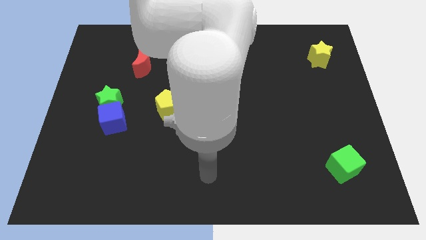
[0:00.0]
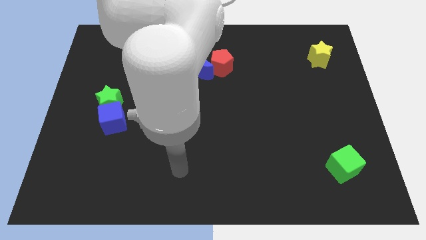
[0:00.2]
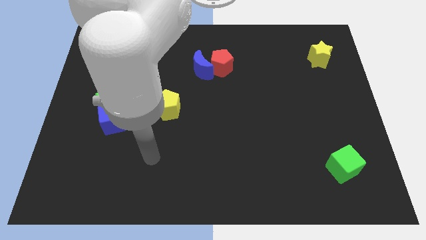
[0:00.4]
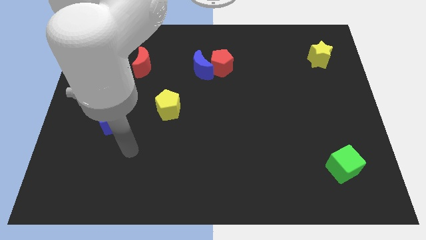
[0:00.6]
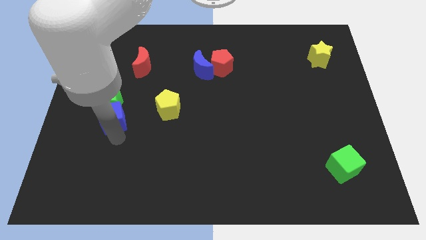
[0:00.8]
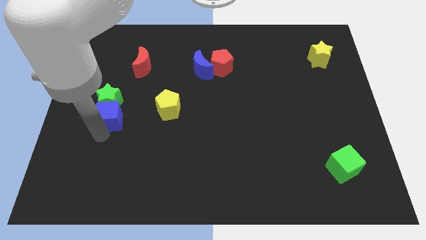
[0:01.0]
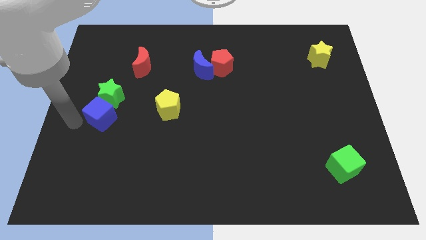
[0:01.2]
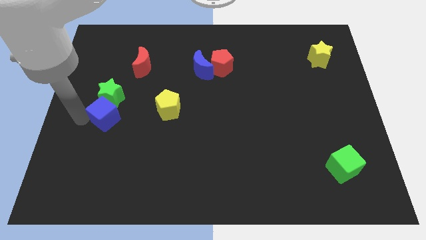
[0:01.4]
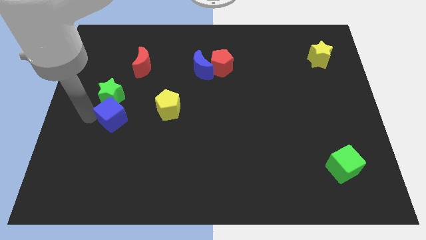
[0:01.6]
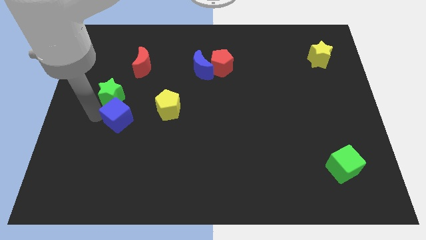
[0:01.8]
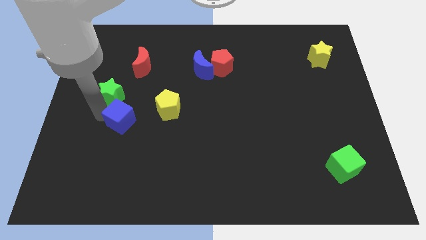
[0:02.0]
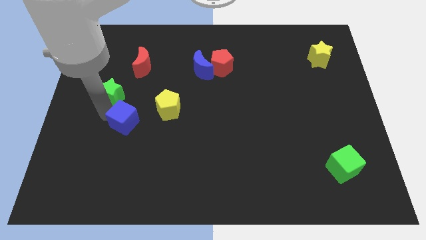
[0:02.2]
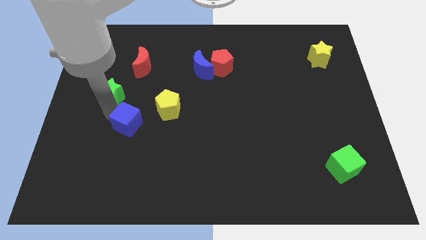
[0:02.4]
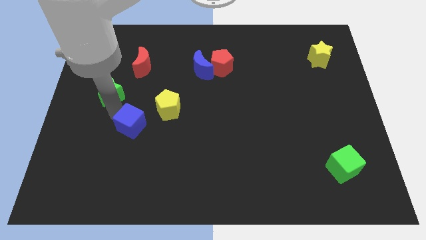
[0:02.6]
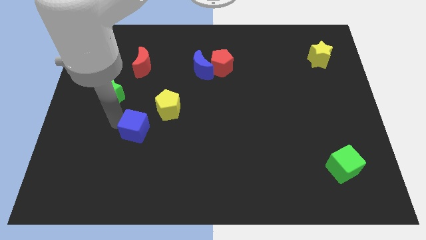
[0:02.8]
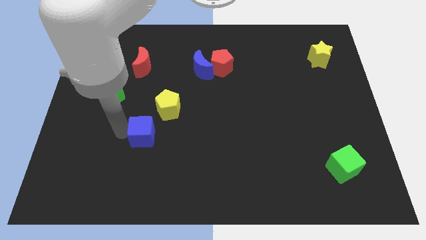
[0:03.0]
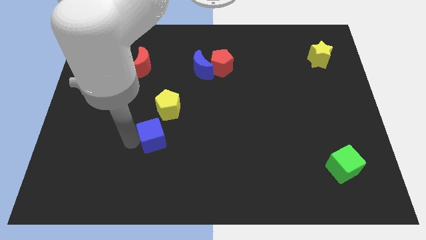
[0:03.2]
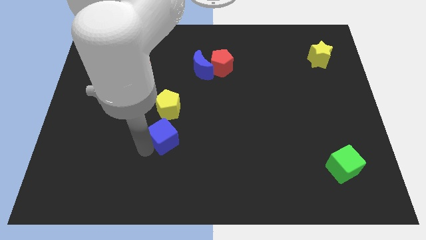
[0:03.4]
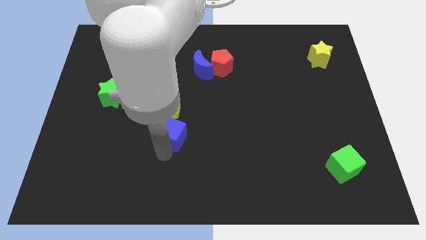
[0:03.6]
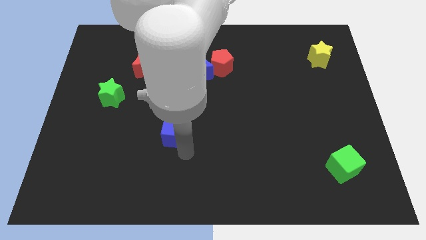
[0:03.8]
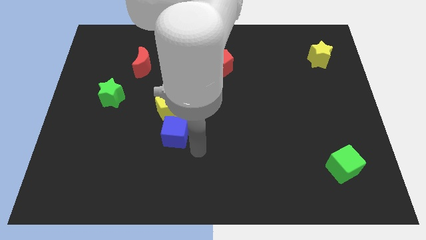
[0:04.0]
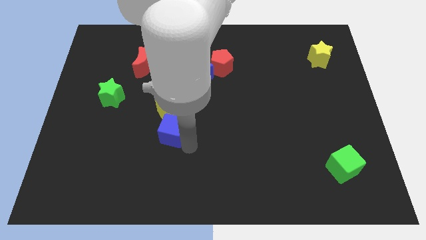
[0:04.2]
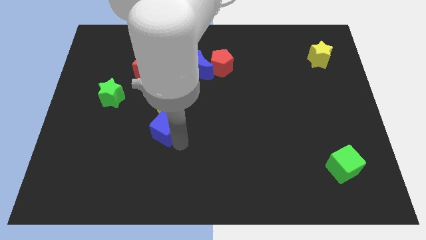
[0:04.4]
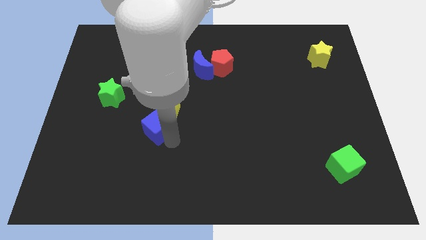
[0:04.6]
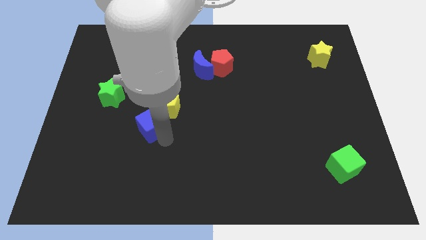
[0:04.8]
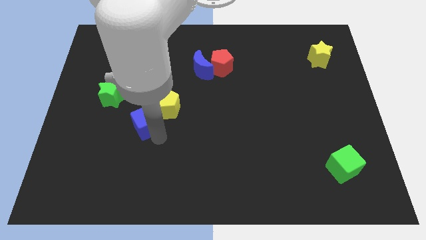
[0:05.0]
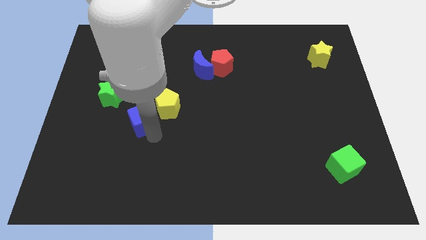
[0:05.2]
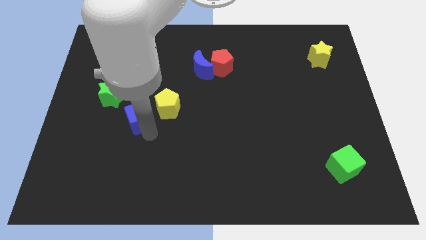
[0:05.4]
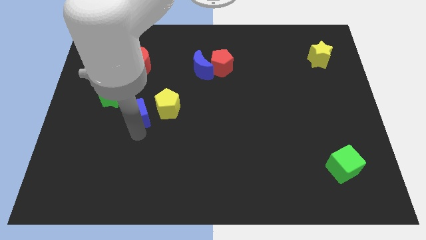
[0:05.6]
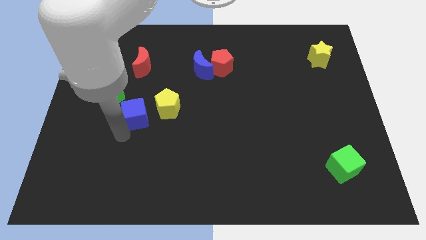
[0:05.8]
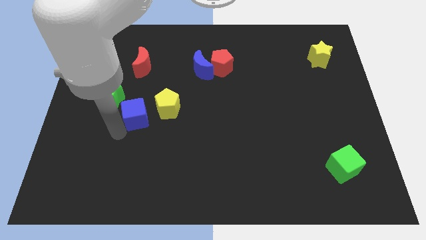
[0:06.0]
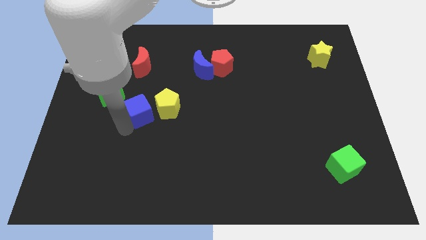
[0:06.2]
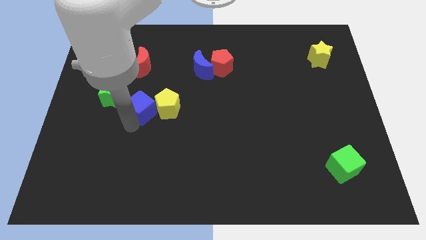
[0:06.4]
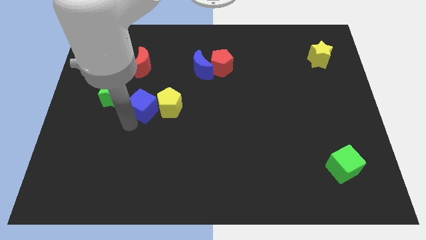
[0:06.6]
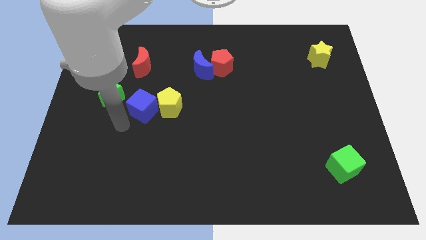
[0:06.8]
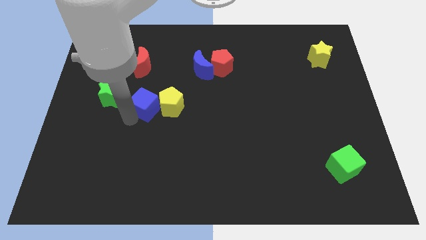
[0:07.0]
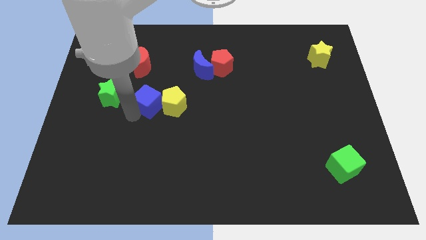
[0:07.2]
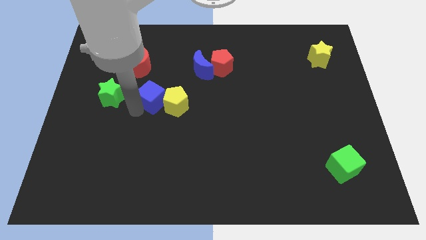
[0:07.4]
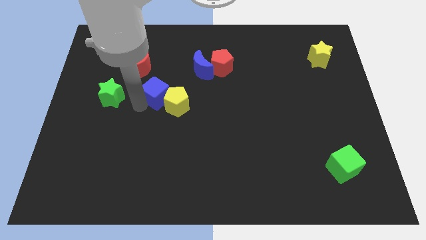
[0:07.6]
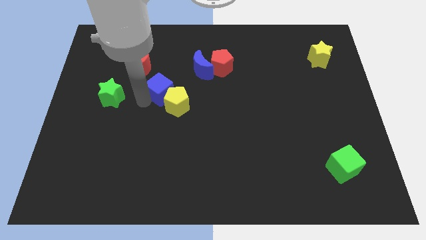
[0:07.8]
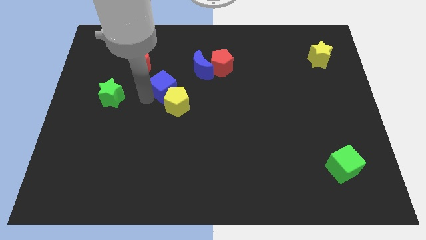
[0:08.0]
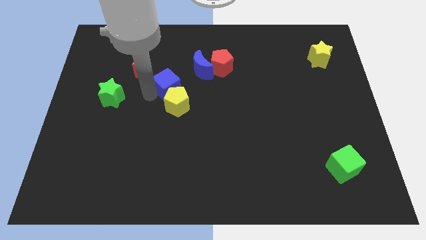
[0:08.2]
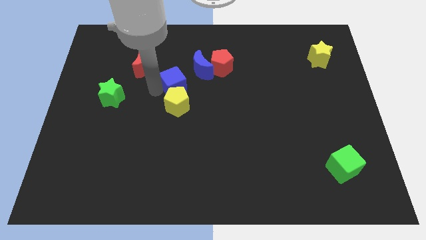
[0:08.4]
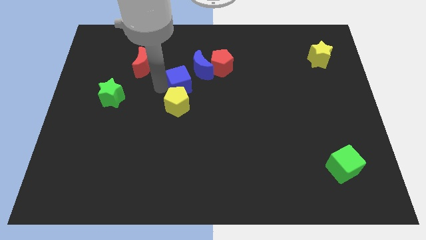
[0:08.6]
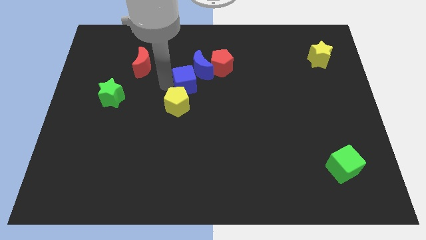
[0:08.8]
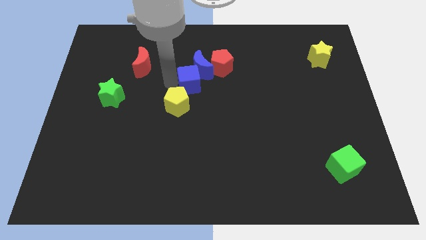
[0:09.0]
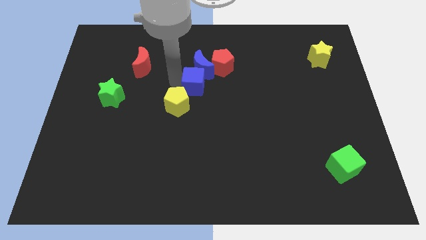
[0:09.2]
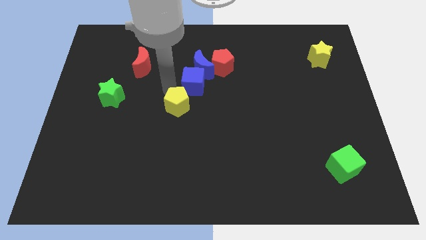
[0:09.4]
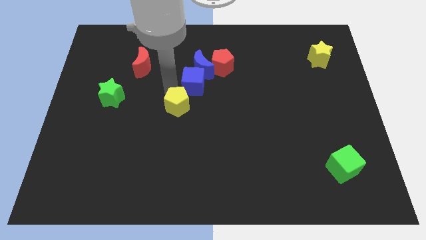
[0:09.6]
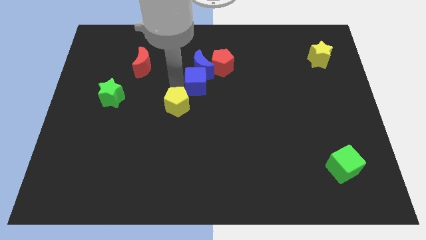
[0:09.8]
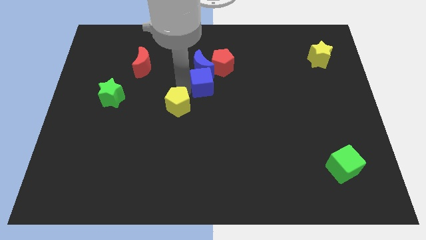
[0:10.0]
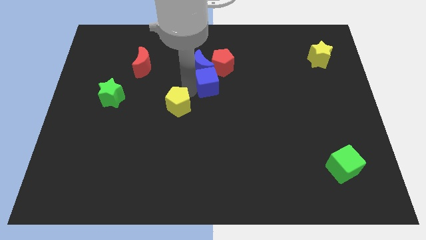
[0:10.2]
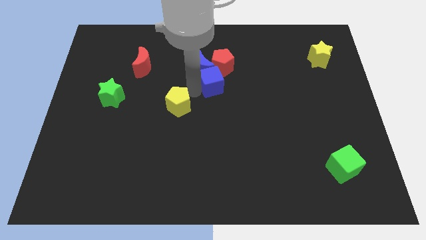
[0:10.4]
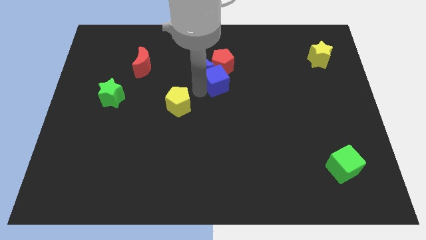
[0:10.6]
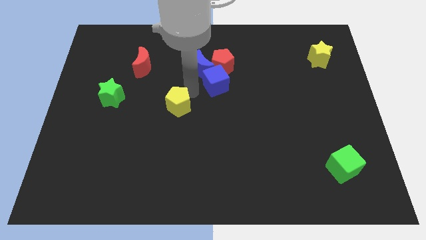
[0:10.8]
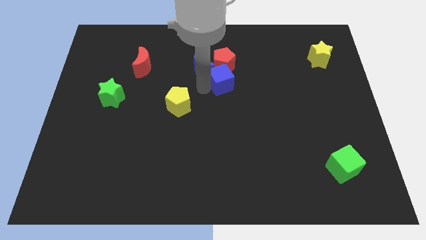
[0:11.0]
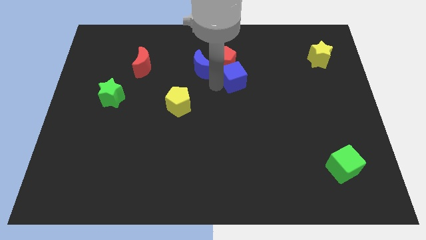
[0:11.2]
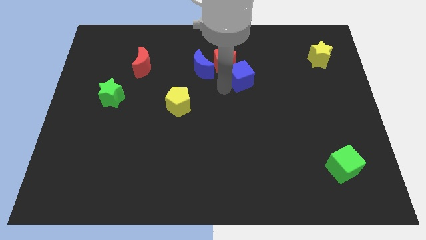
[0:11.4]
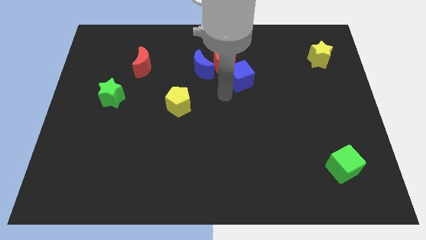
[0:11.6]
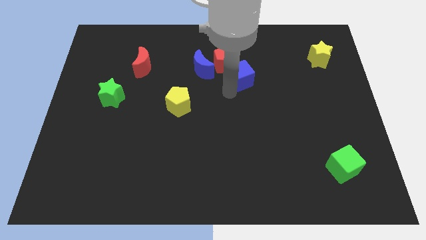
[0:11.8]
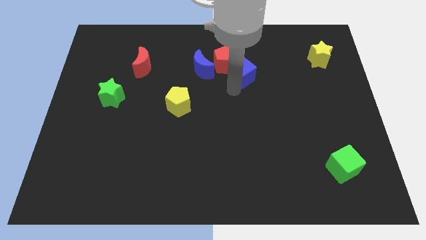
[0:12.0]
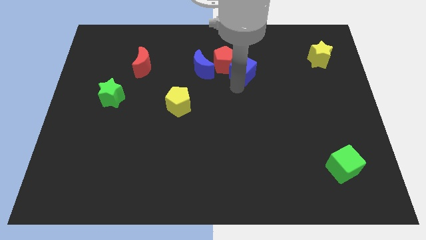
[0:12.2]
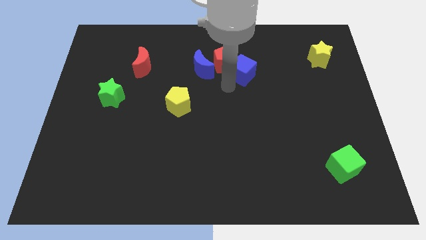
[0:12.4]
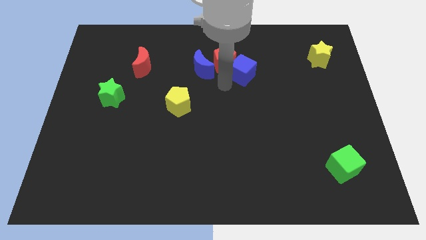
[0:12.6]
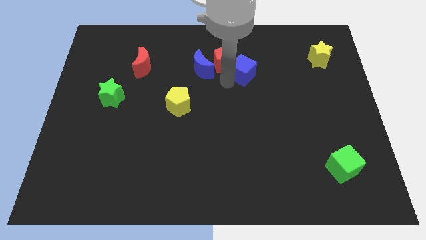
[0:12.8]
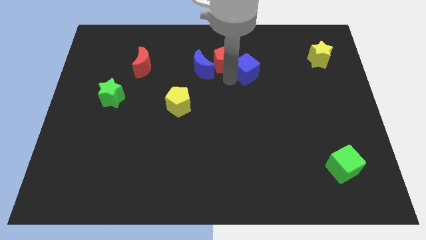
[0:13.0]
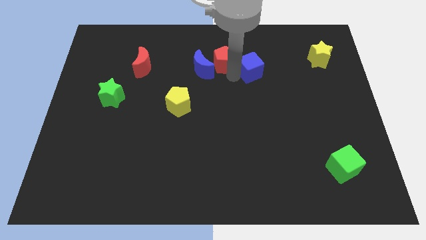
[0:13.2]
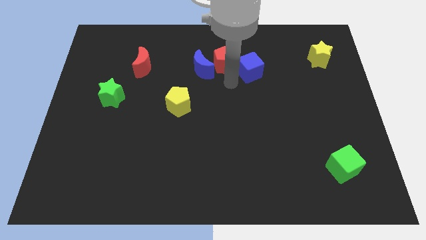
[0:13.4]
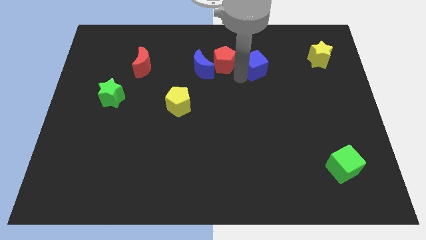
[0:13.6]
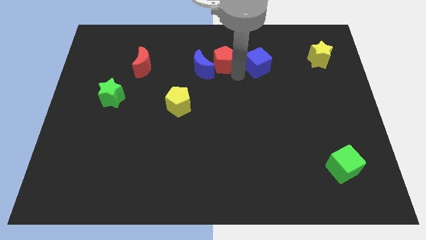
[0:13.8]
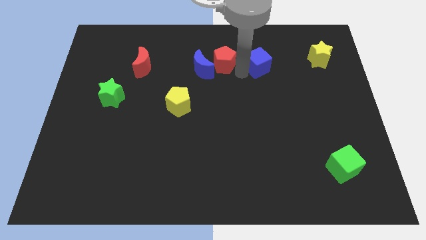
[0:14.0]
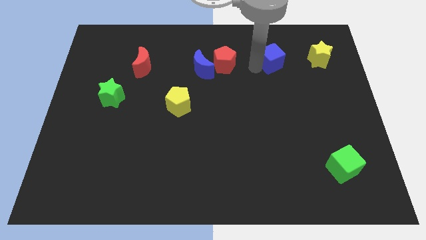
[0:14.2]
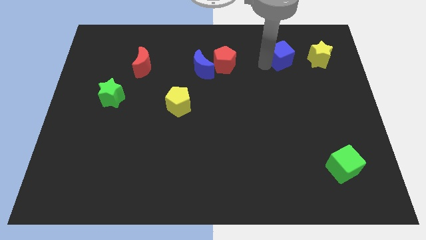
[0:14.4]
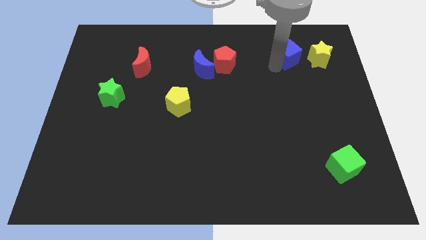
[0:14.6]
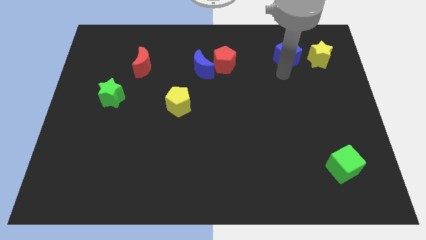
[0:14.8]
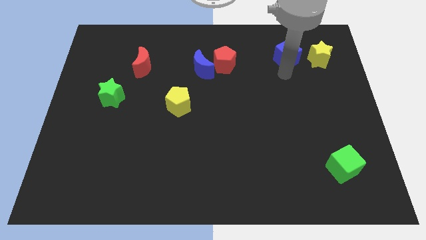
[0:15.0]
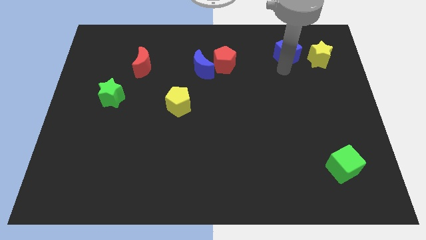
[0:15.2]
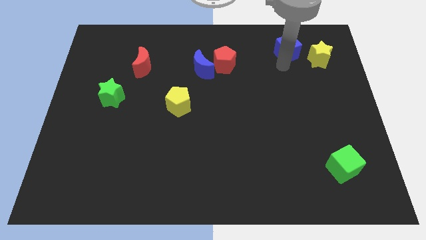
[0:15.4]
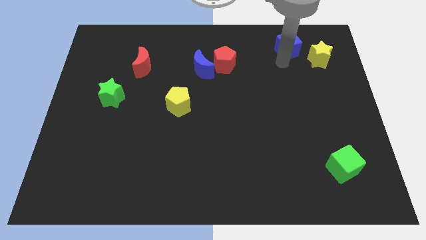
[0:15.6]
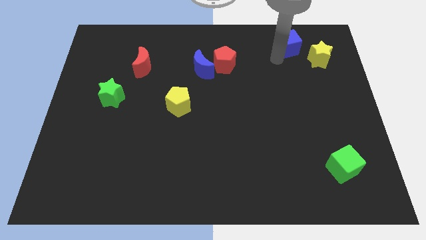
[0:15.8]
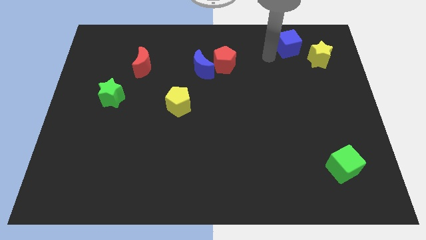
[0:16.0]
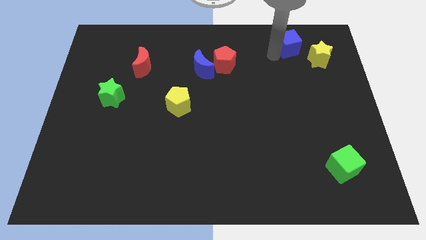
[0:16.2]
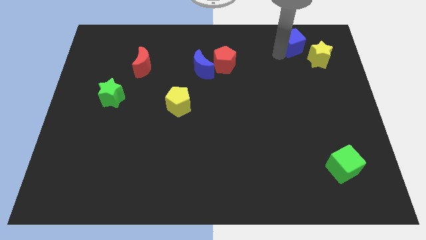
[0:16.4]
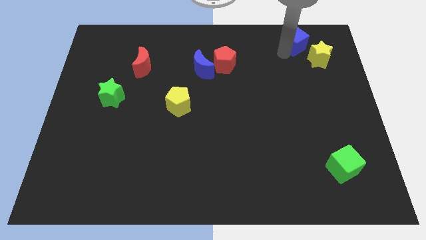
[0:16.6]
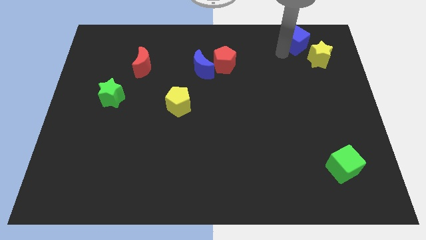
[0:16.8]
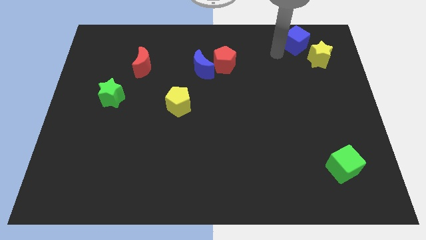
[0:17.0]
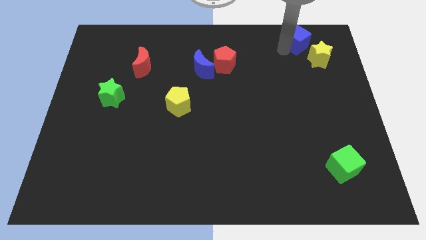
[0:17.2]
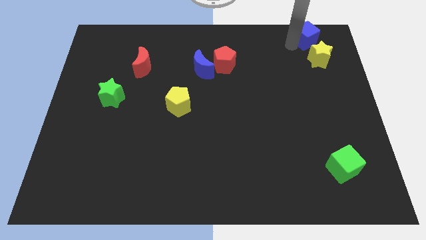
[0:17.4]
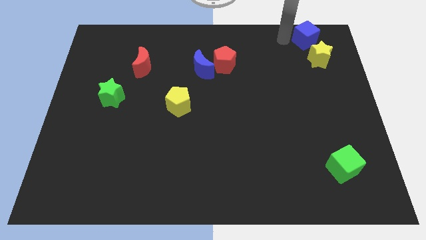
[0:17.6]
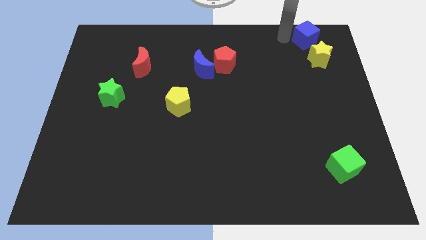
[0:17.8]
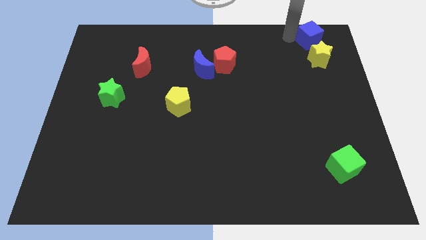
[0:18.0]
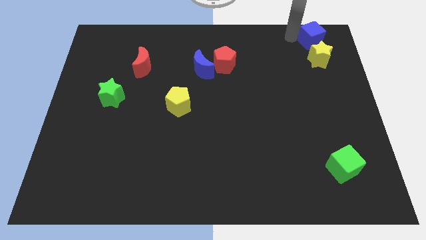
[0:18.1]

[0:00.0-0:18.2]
slide the blue cube to the top right corner
